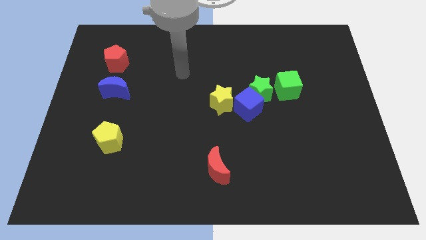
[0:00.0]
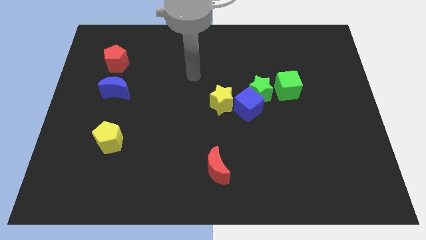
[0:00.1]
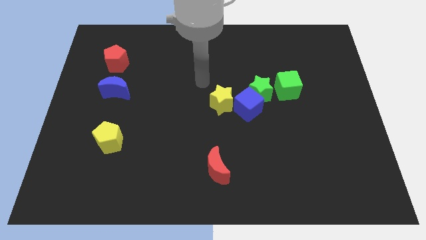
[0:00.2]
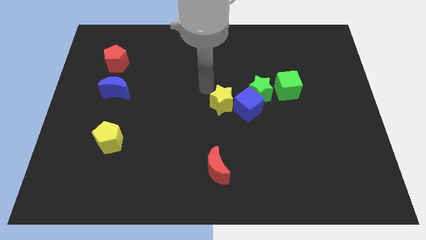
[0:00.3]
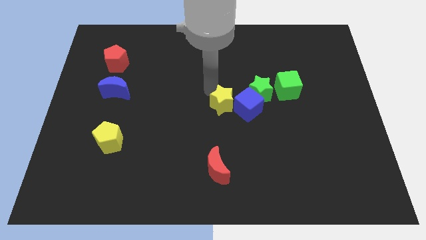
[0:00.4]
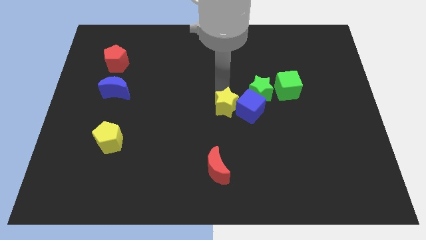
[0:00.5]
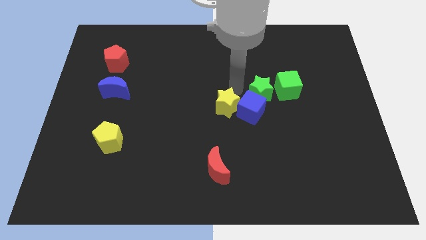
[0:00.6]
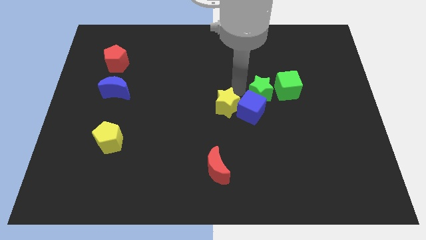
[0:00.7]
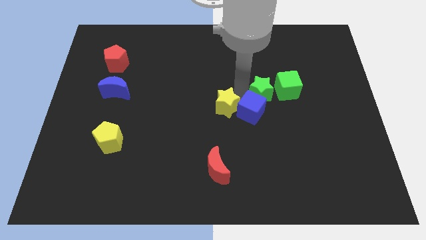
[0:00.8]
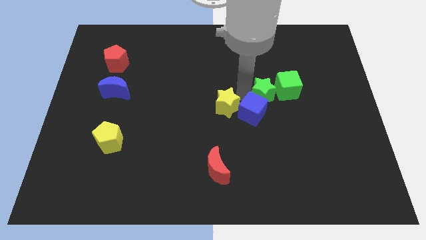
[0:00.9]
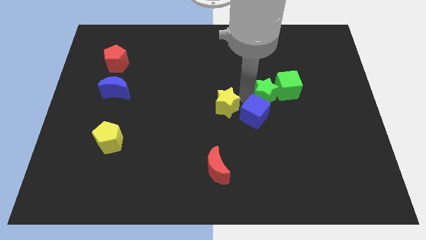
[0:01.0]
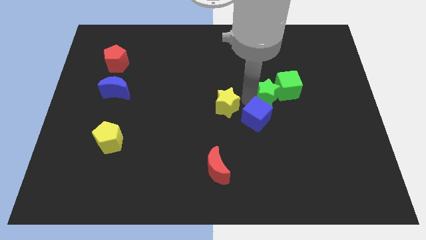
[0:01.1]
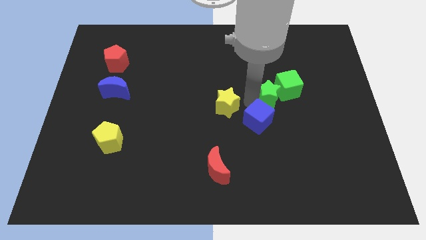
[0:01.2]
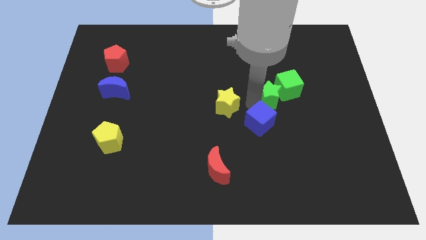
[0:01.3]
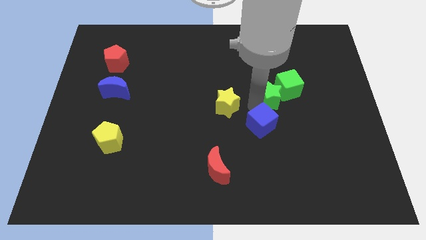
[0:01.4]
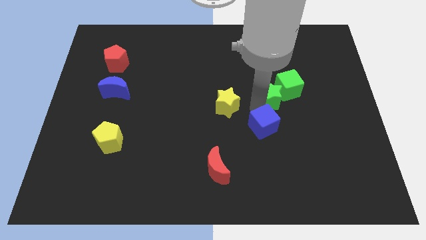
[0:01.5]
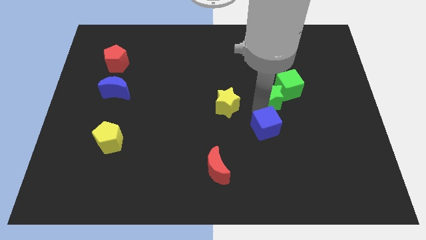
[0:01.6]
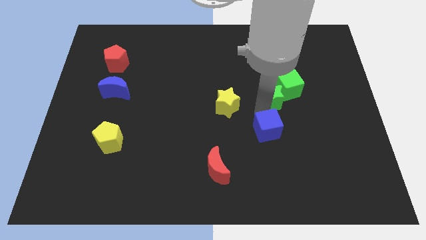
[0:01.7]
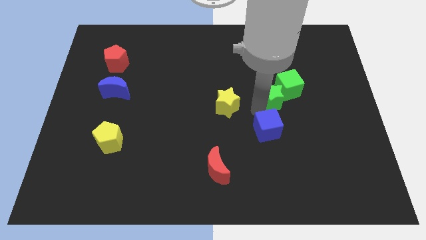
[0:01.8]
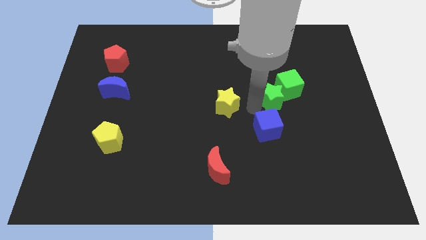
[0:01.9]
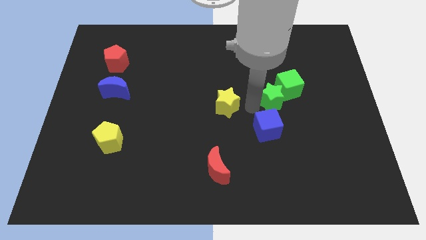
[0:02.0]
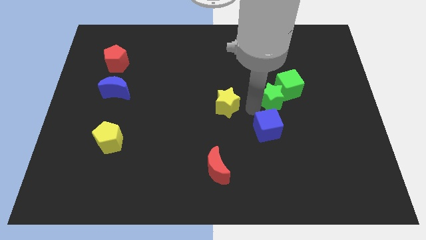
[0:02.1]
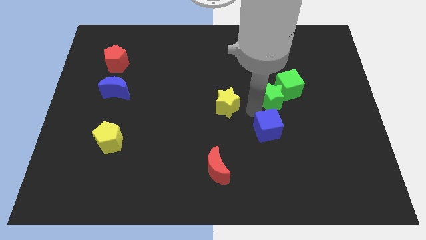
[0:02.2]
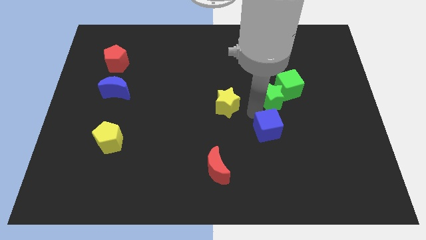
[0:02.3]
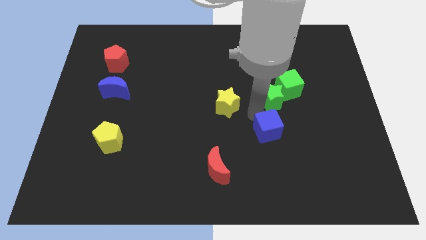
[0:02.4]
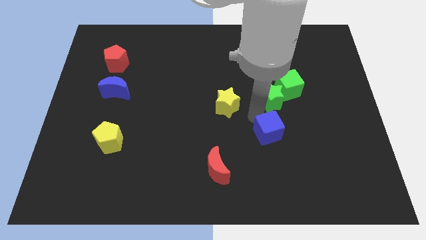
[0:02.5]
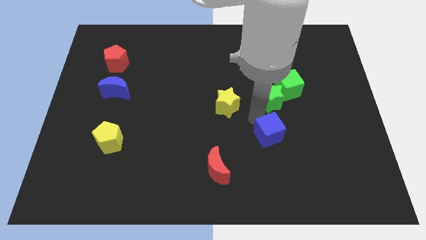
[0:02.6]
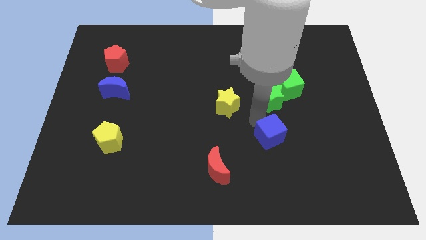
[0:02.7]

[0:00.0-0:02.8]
move the blue cube away from the green star and yellow star

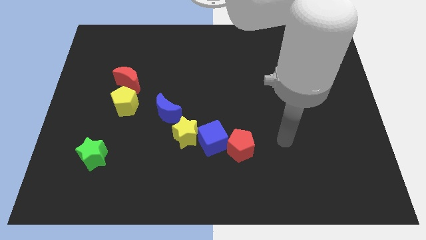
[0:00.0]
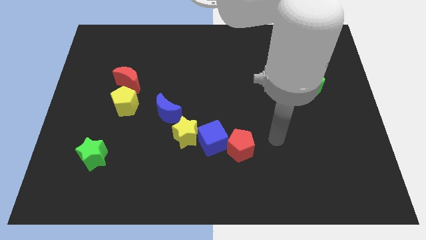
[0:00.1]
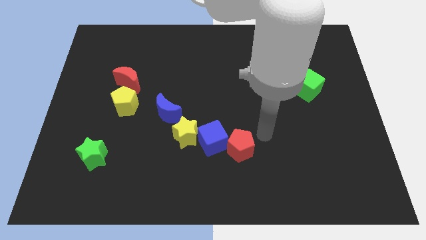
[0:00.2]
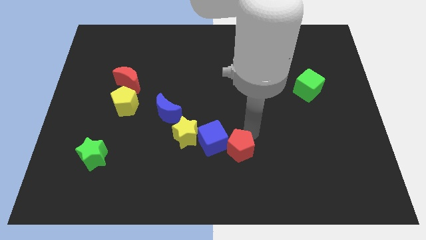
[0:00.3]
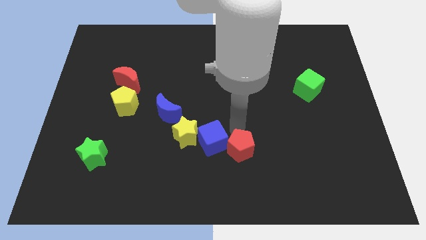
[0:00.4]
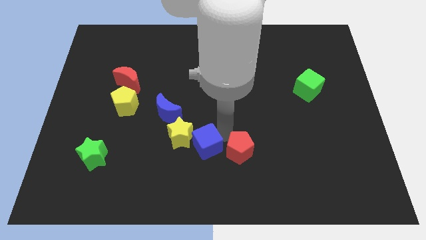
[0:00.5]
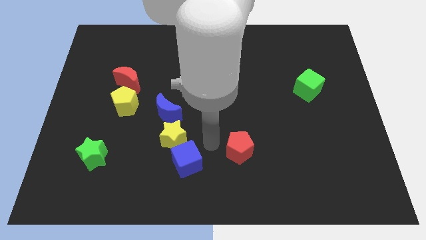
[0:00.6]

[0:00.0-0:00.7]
separate the red pentagon from the blue cube

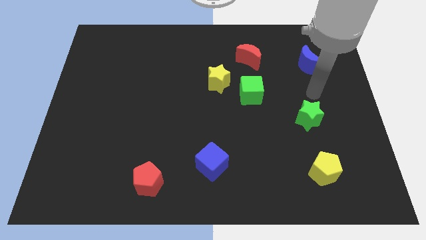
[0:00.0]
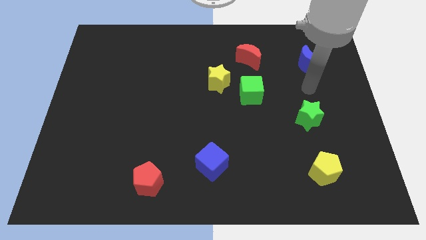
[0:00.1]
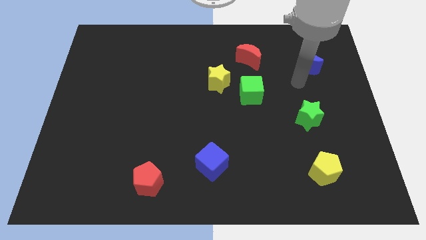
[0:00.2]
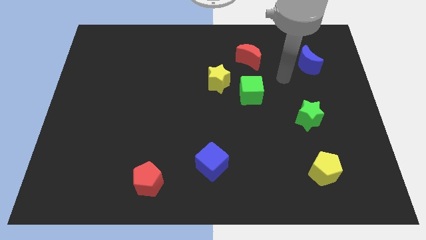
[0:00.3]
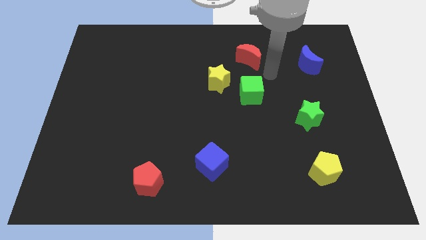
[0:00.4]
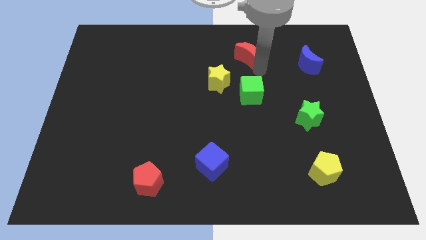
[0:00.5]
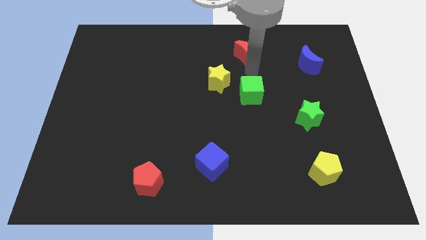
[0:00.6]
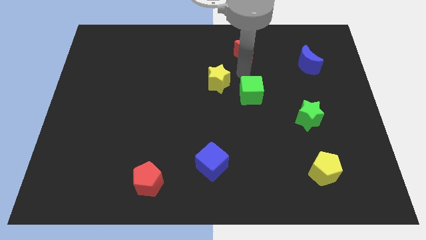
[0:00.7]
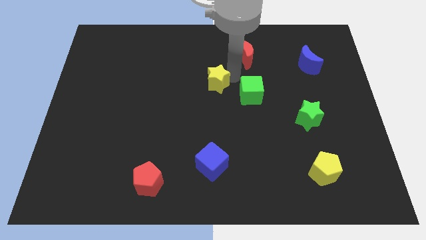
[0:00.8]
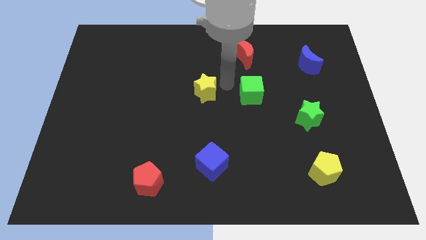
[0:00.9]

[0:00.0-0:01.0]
move the green cube away from the yellow star

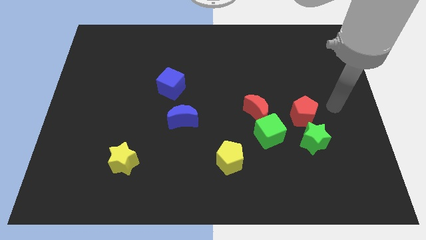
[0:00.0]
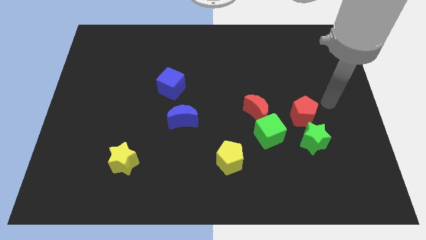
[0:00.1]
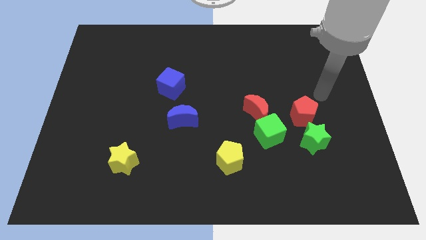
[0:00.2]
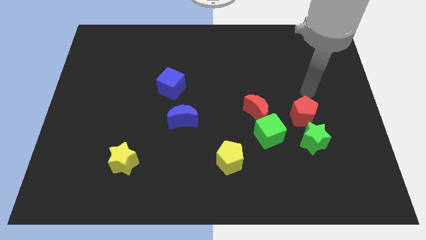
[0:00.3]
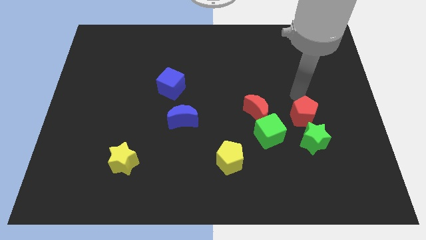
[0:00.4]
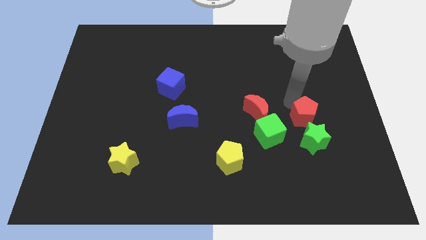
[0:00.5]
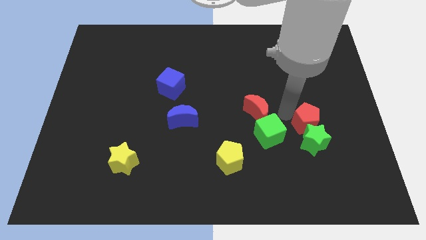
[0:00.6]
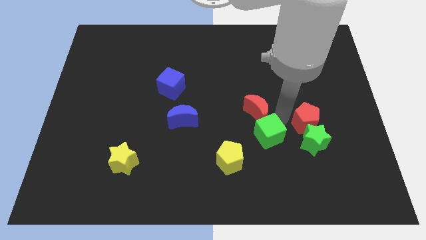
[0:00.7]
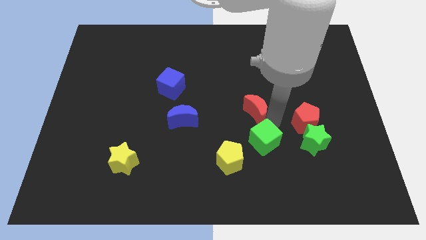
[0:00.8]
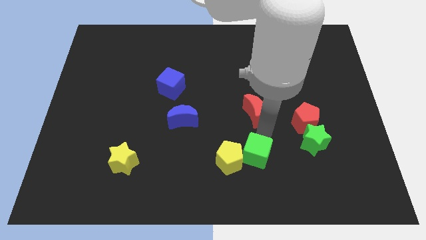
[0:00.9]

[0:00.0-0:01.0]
pull the red moon apart from the green cube

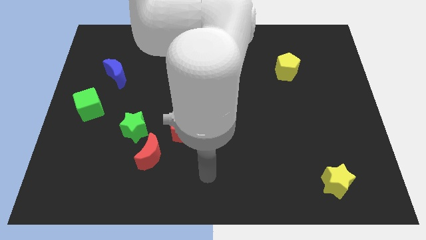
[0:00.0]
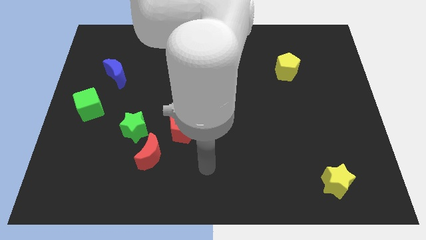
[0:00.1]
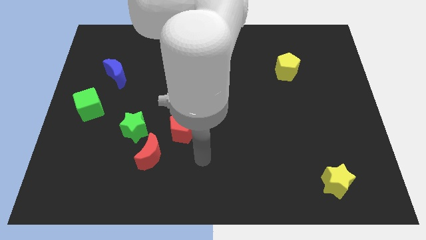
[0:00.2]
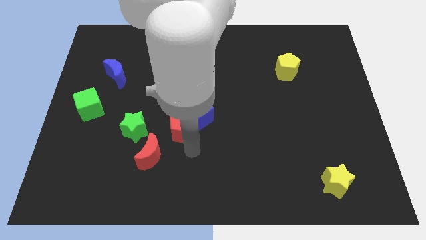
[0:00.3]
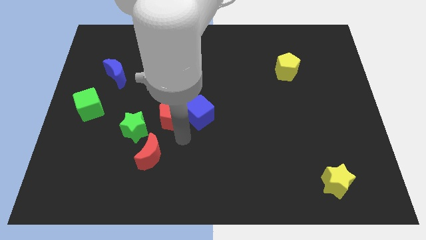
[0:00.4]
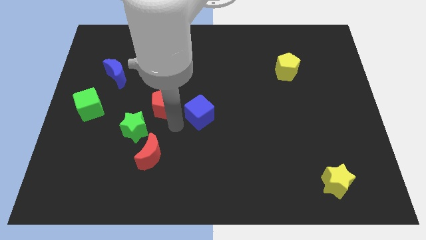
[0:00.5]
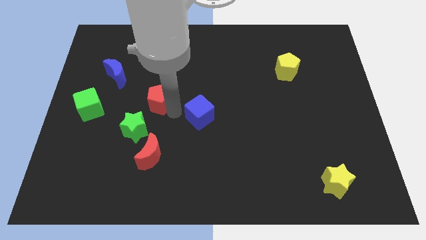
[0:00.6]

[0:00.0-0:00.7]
move the blue cube away from the red pentagon

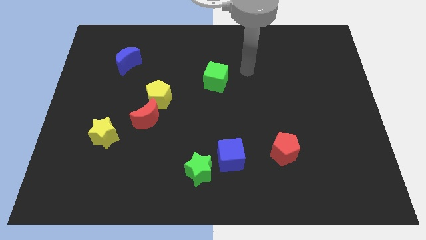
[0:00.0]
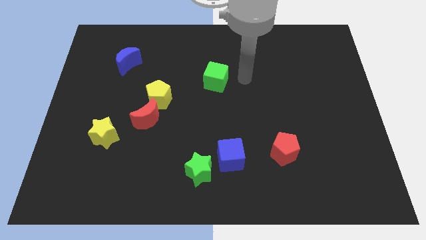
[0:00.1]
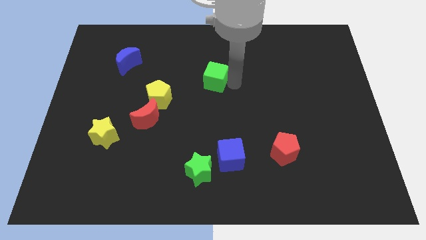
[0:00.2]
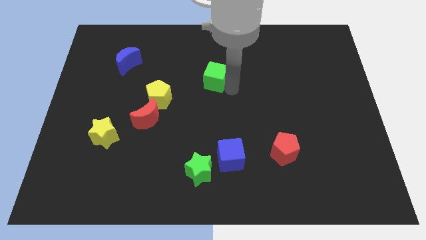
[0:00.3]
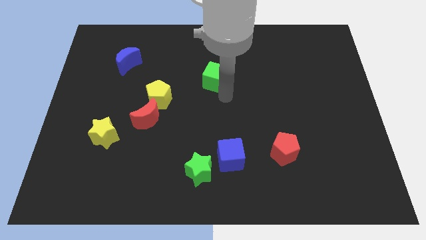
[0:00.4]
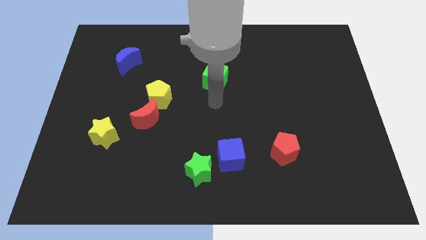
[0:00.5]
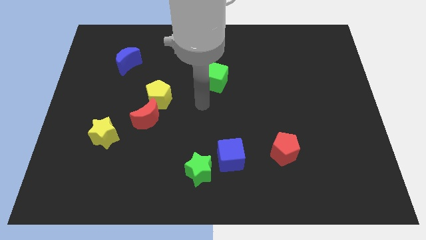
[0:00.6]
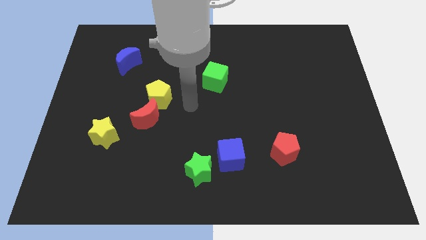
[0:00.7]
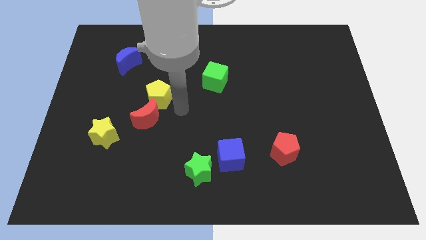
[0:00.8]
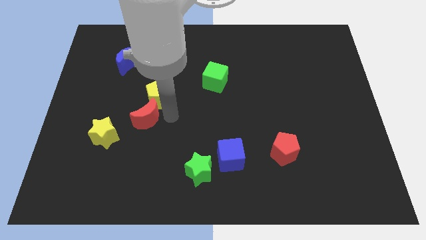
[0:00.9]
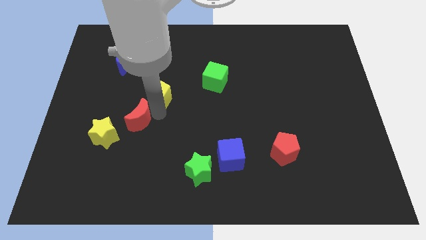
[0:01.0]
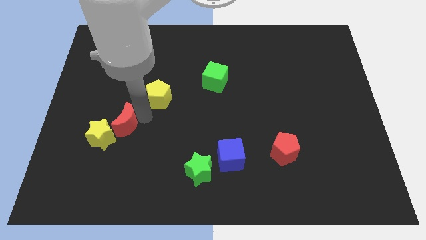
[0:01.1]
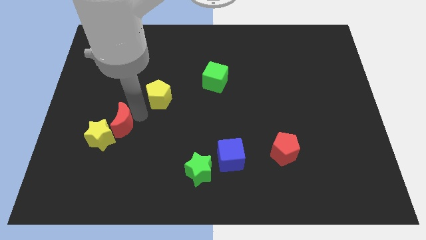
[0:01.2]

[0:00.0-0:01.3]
pull the yellow pentagon apart from the red moon

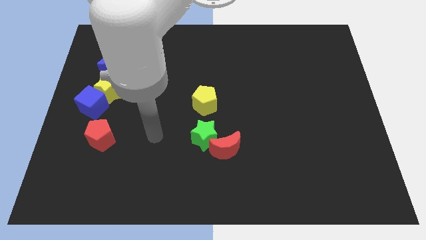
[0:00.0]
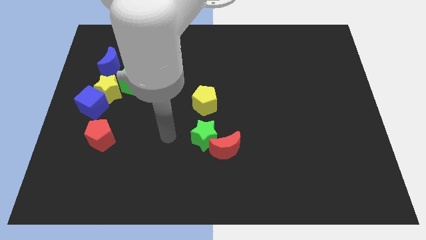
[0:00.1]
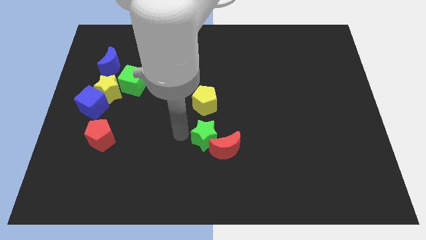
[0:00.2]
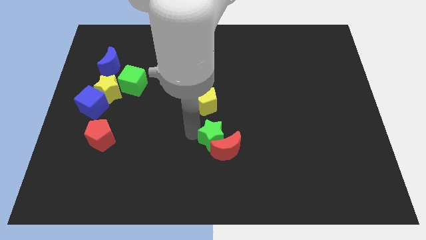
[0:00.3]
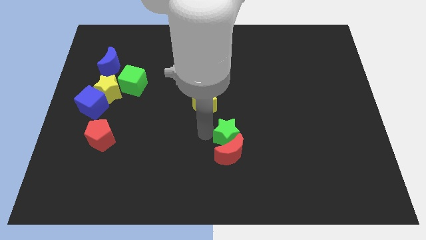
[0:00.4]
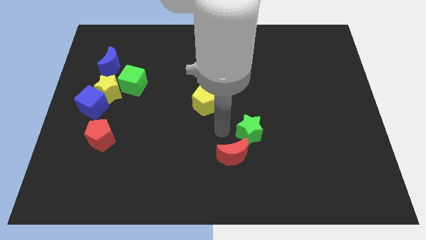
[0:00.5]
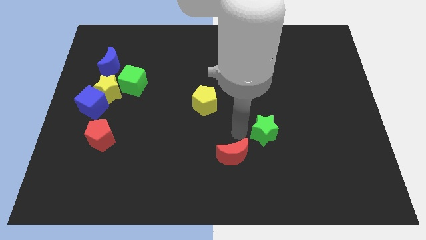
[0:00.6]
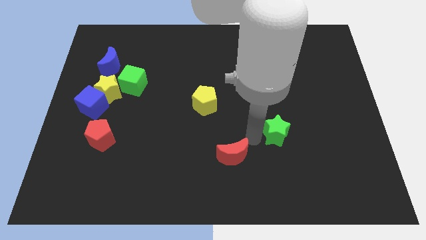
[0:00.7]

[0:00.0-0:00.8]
move the red moon away from the green star

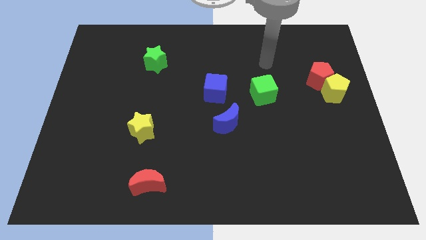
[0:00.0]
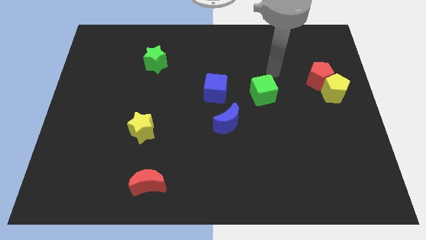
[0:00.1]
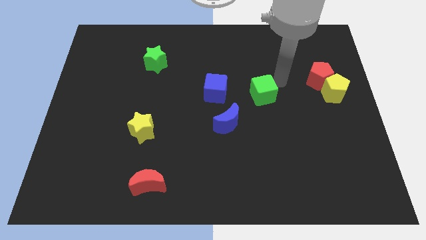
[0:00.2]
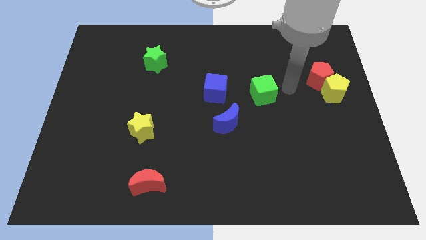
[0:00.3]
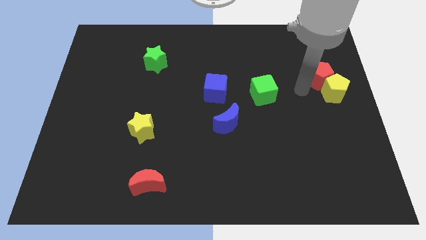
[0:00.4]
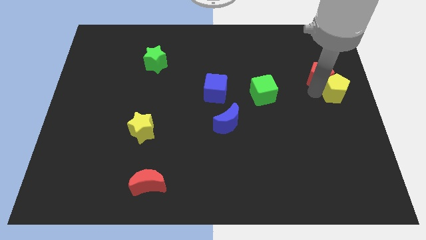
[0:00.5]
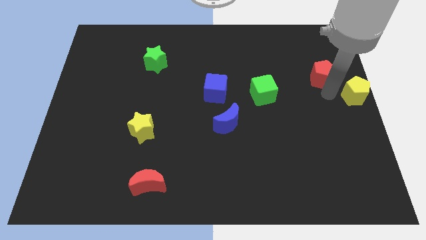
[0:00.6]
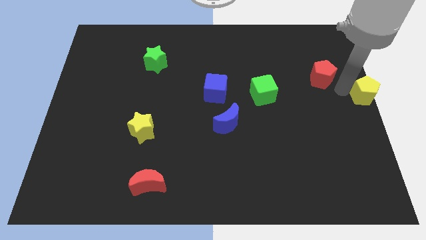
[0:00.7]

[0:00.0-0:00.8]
separate the red pentagon from the yellow pentagon
